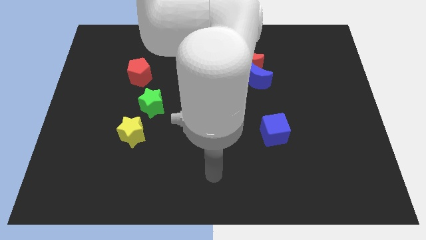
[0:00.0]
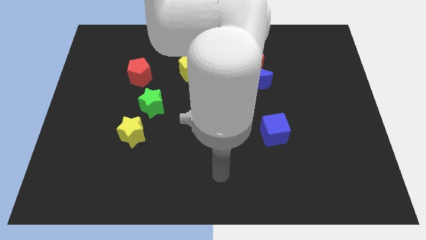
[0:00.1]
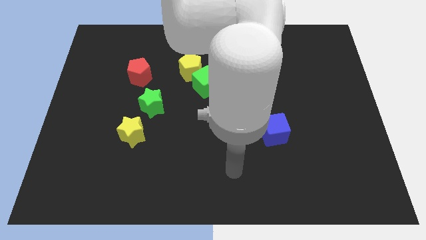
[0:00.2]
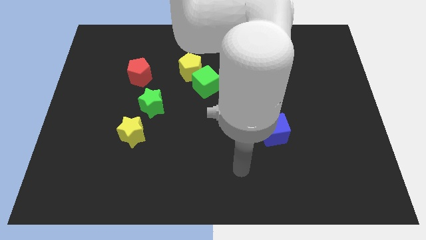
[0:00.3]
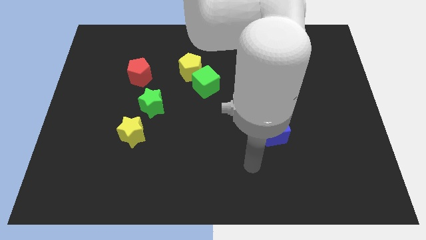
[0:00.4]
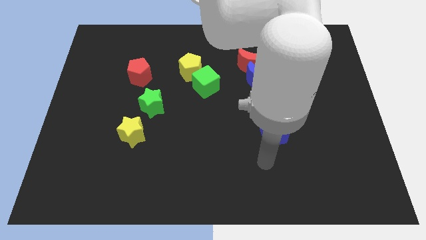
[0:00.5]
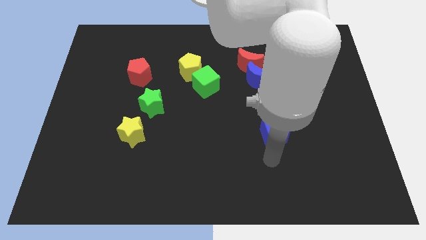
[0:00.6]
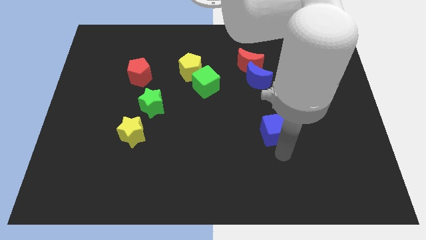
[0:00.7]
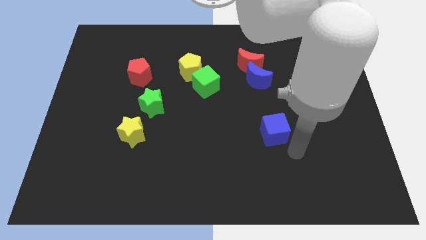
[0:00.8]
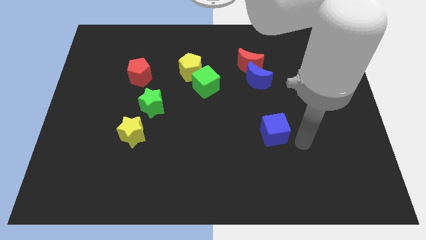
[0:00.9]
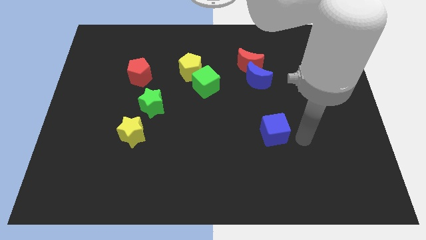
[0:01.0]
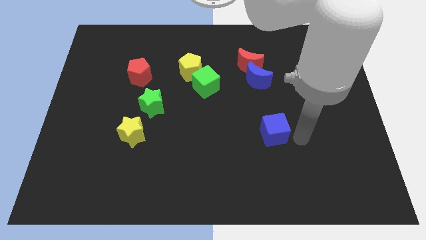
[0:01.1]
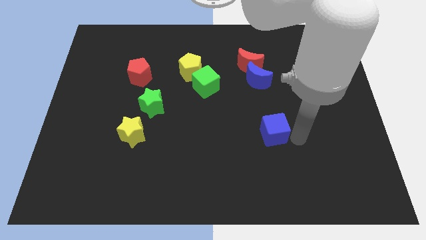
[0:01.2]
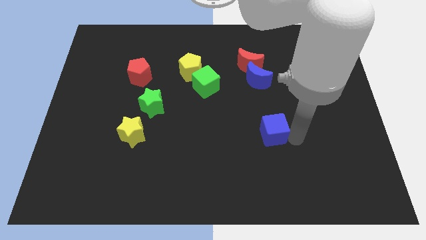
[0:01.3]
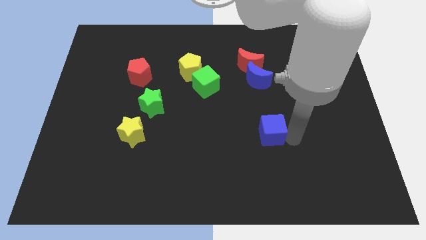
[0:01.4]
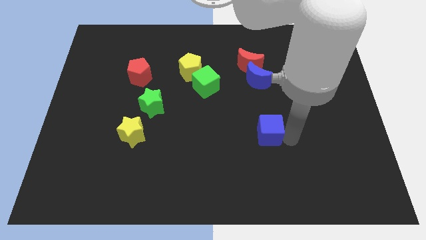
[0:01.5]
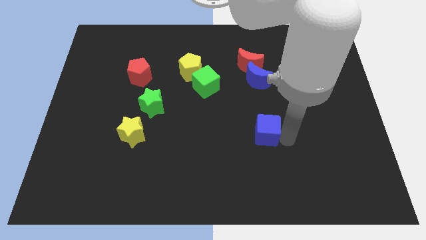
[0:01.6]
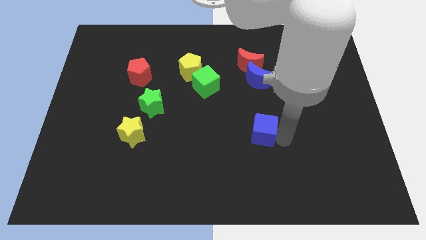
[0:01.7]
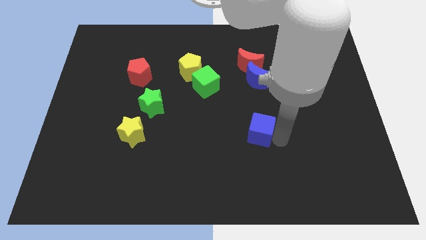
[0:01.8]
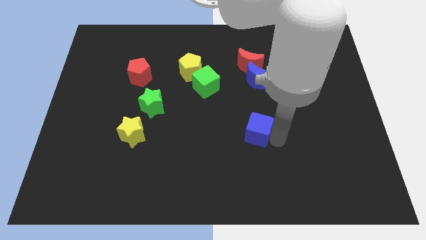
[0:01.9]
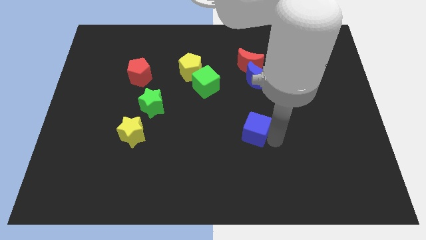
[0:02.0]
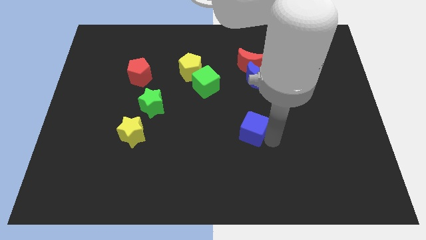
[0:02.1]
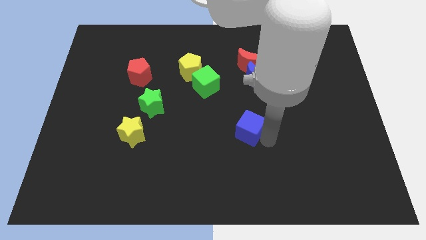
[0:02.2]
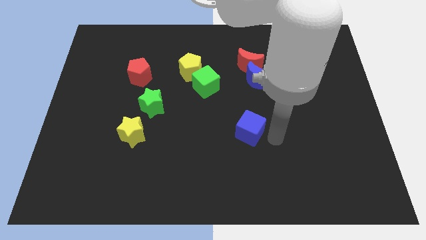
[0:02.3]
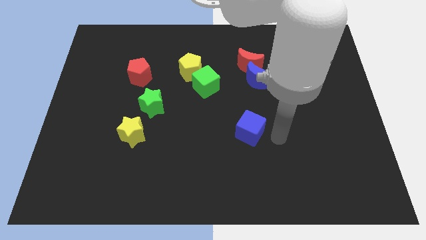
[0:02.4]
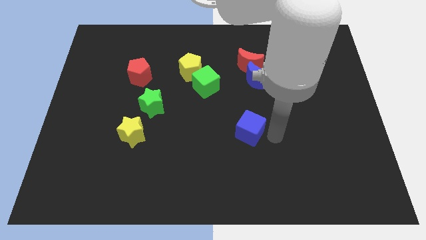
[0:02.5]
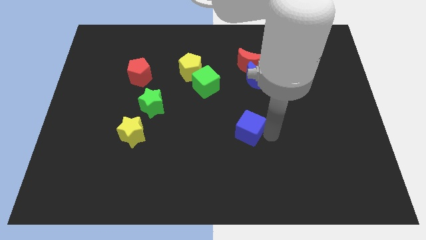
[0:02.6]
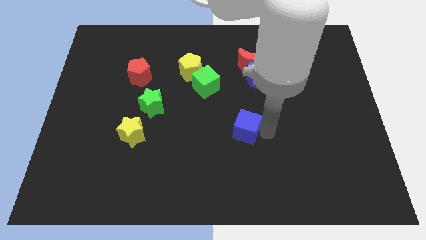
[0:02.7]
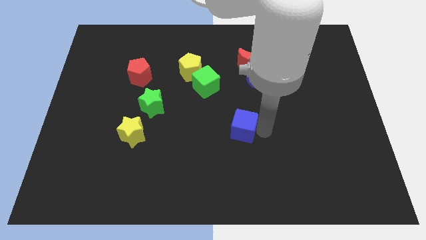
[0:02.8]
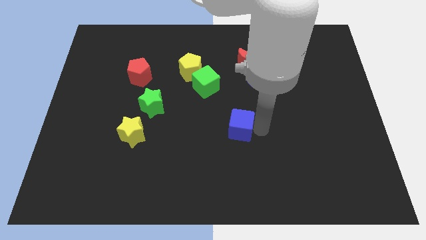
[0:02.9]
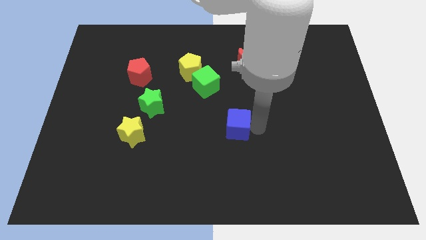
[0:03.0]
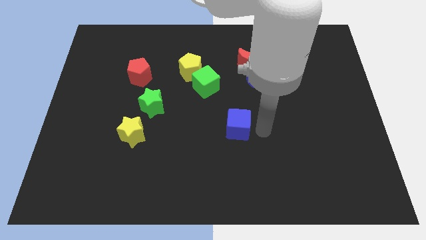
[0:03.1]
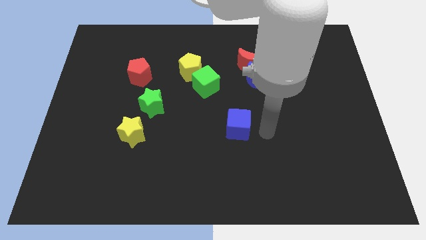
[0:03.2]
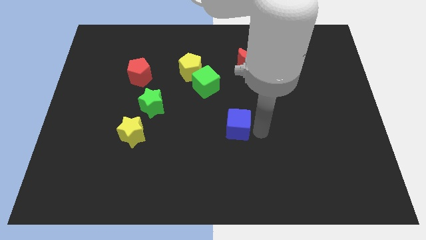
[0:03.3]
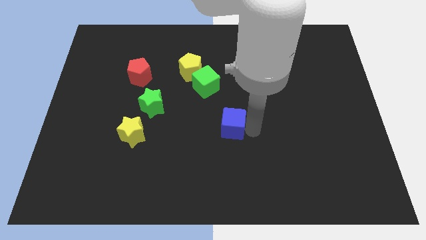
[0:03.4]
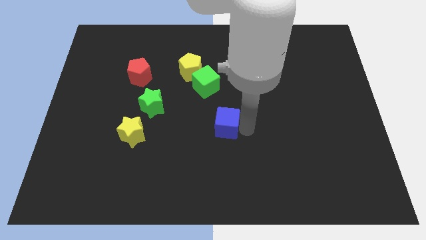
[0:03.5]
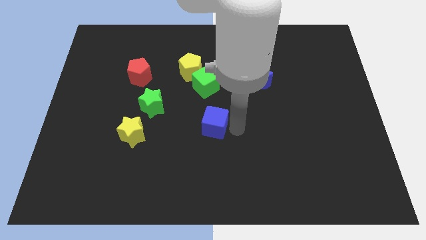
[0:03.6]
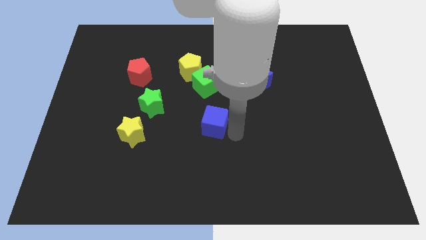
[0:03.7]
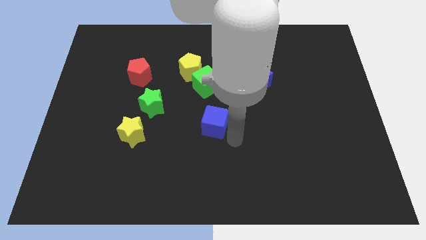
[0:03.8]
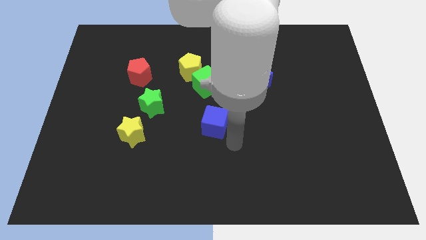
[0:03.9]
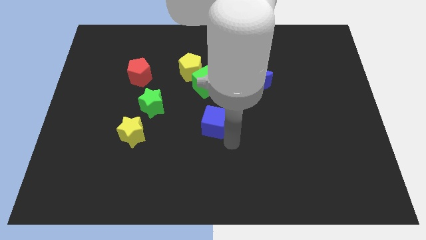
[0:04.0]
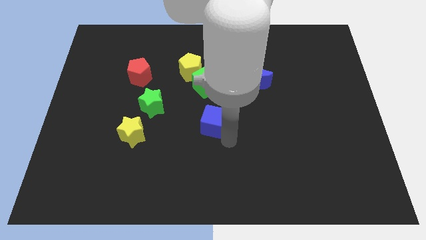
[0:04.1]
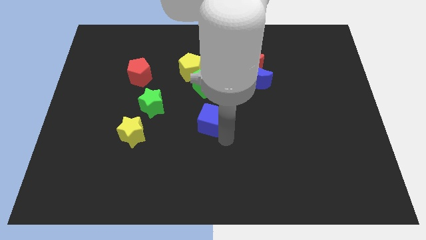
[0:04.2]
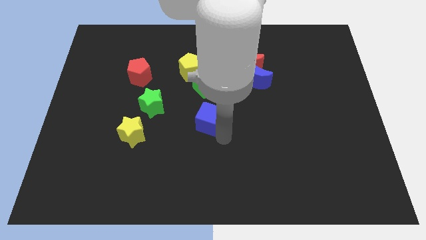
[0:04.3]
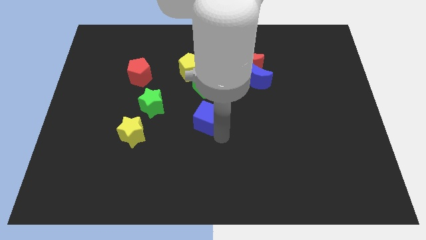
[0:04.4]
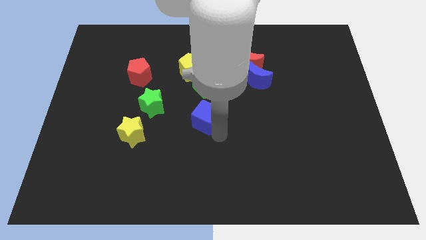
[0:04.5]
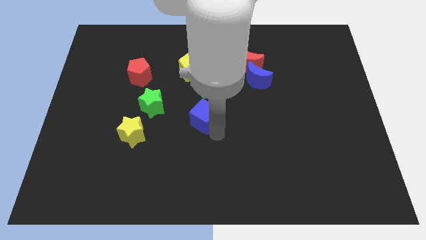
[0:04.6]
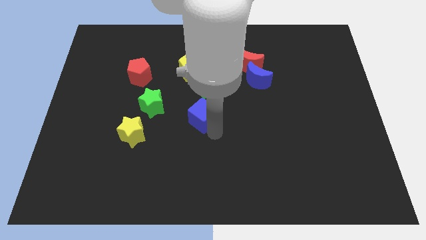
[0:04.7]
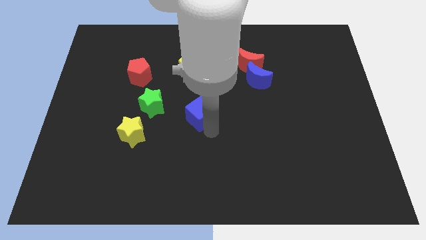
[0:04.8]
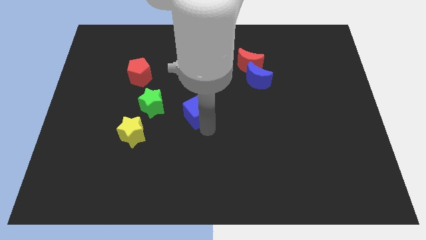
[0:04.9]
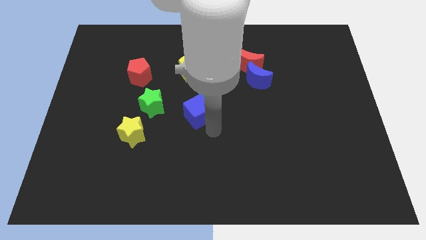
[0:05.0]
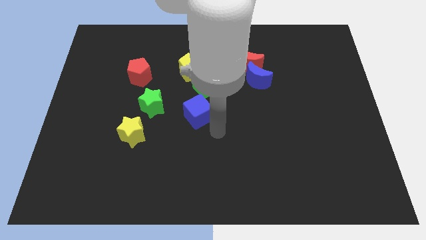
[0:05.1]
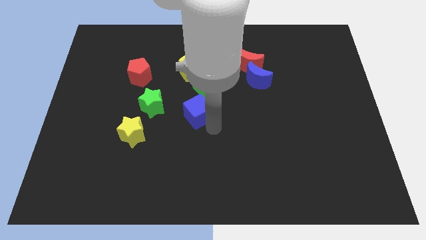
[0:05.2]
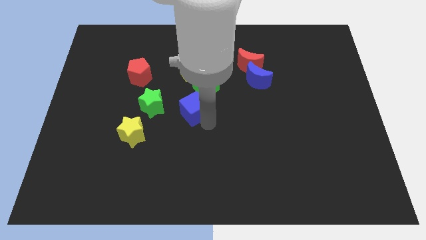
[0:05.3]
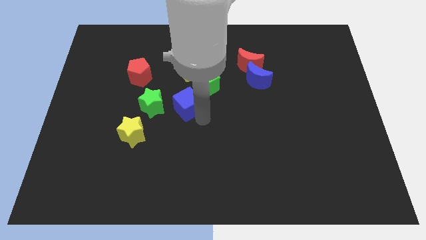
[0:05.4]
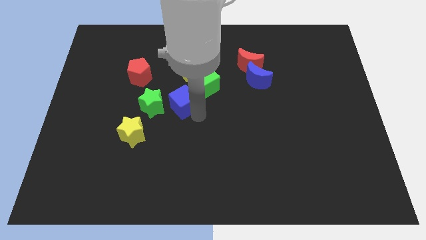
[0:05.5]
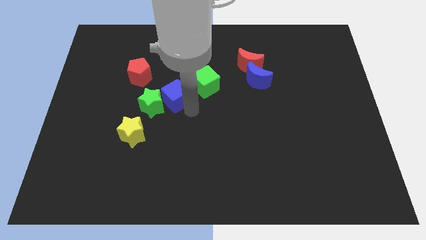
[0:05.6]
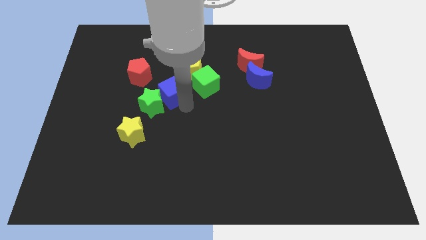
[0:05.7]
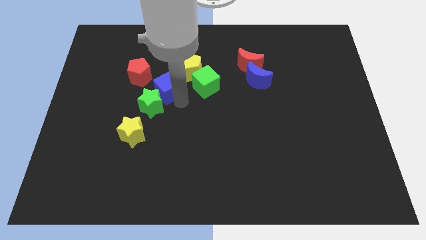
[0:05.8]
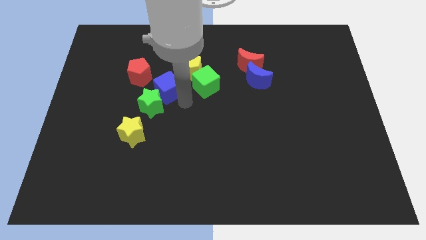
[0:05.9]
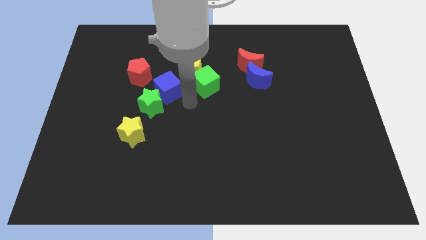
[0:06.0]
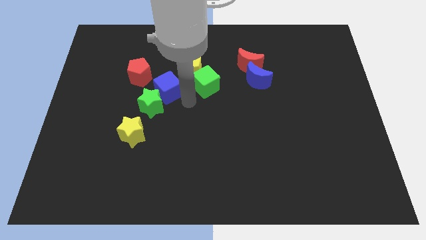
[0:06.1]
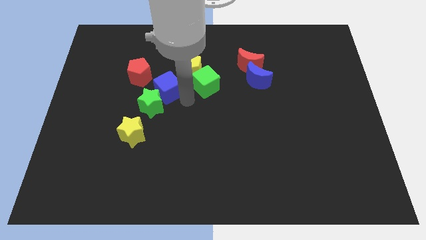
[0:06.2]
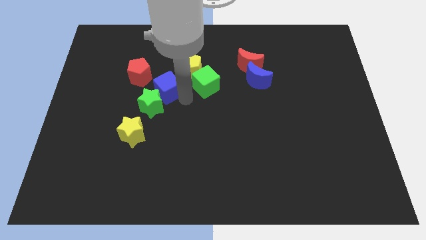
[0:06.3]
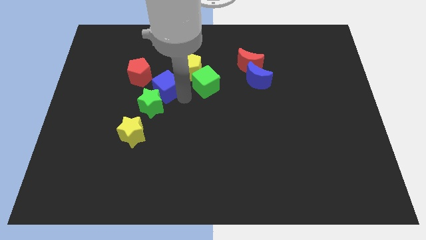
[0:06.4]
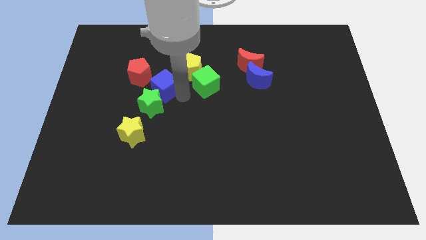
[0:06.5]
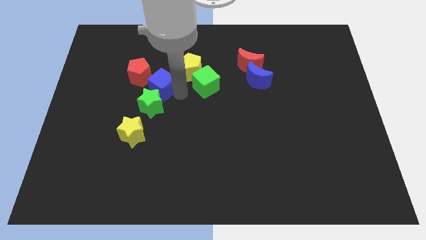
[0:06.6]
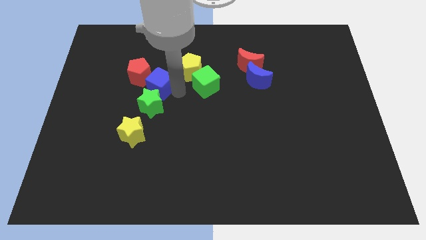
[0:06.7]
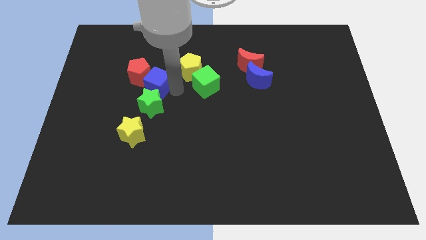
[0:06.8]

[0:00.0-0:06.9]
slide the blue cube towards the red pentagon

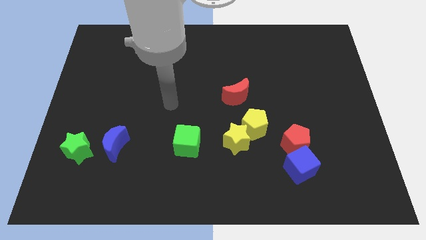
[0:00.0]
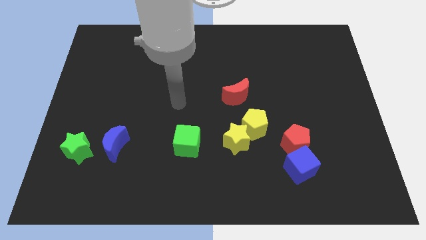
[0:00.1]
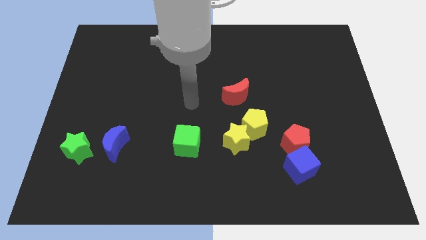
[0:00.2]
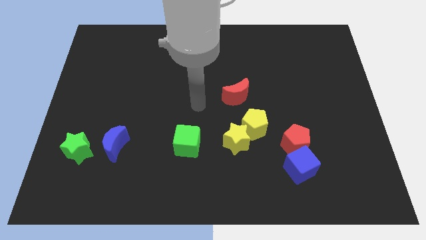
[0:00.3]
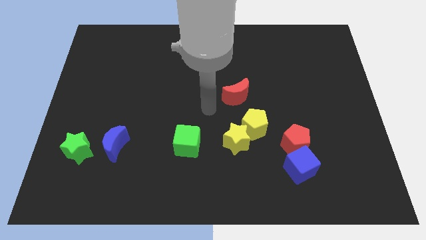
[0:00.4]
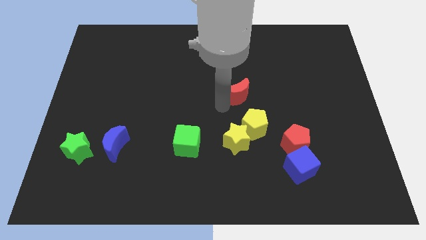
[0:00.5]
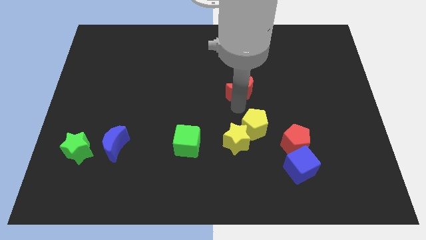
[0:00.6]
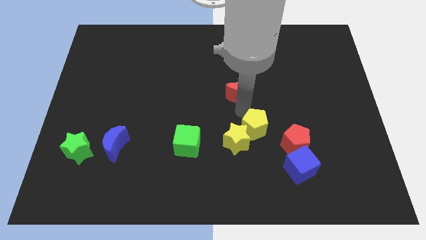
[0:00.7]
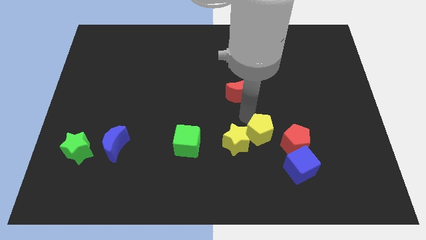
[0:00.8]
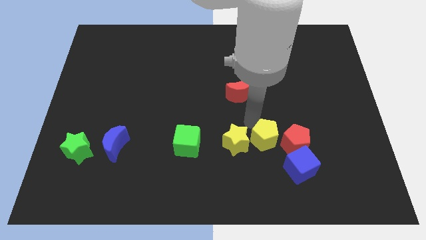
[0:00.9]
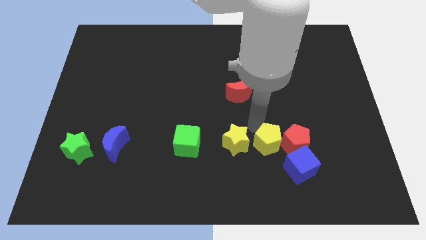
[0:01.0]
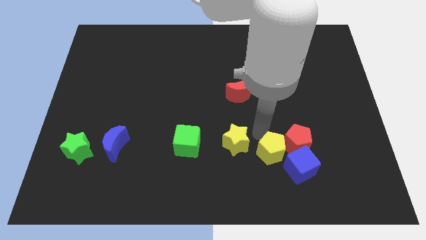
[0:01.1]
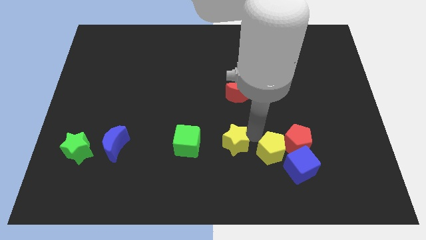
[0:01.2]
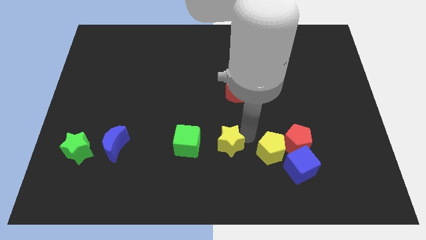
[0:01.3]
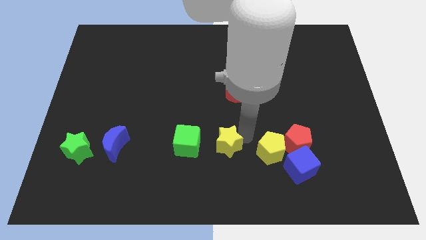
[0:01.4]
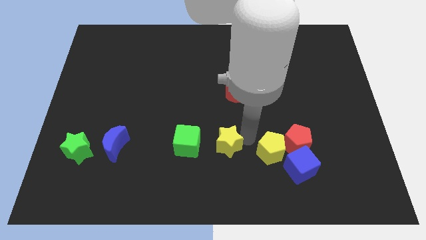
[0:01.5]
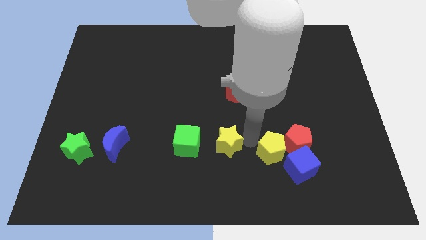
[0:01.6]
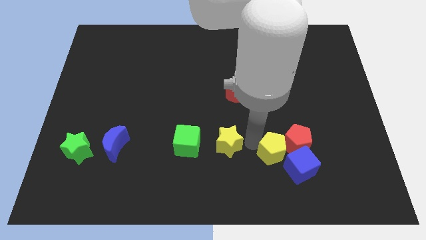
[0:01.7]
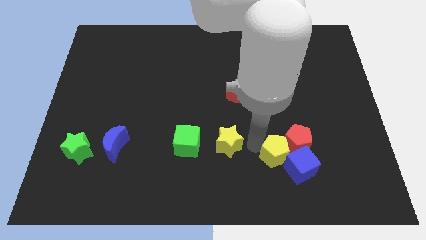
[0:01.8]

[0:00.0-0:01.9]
push the yellow pentagon to the blue cube
